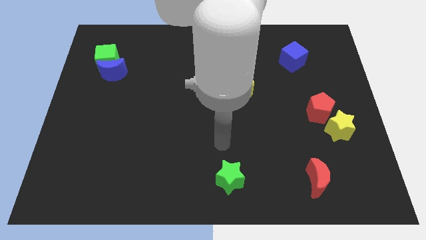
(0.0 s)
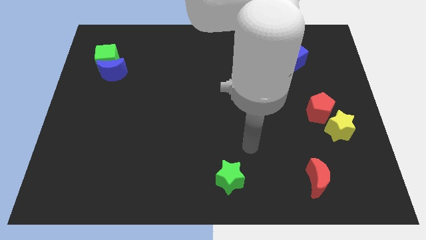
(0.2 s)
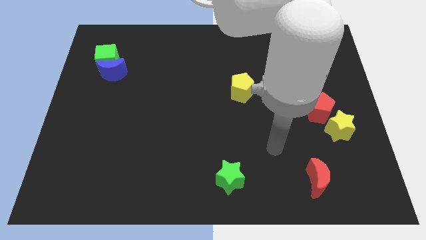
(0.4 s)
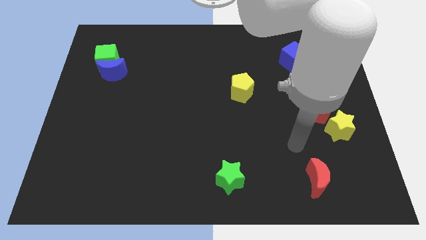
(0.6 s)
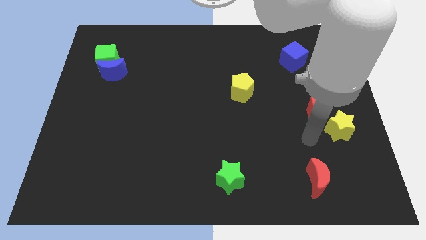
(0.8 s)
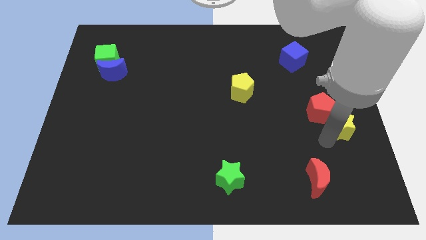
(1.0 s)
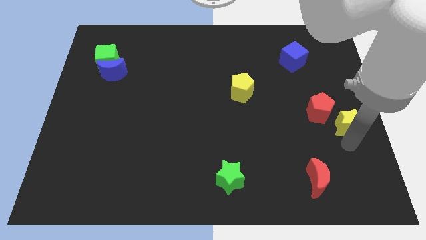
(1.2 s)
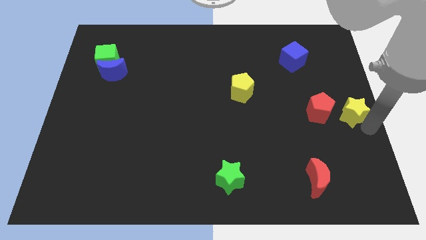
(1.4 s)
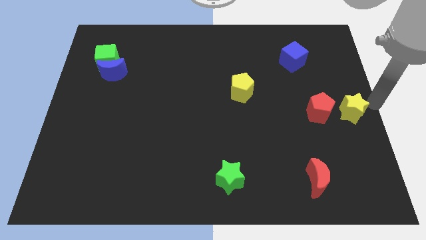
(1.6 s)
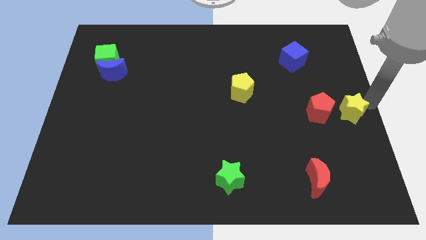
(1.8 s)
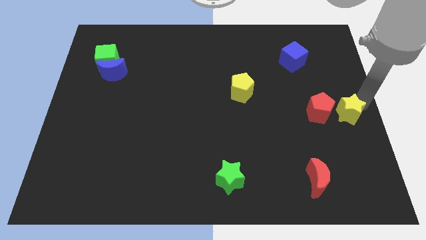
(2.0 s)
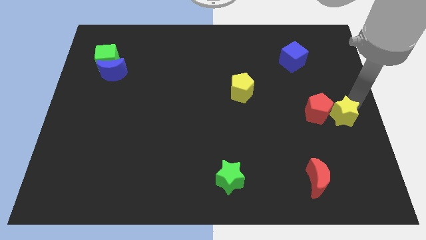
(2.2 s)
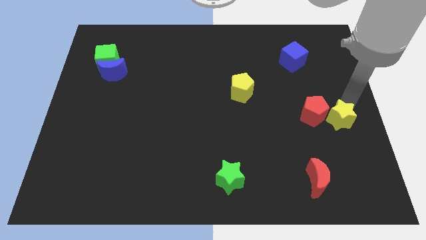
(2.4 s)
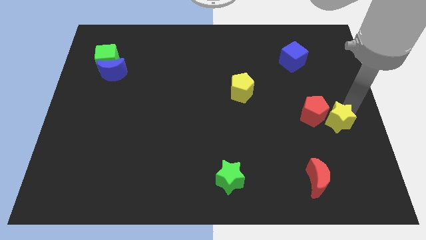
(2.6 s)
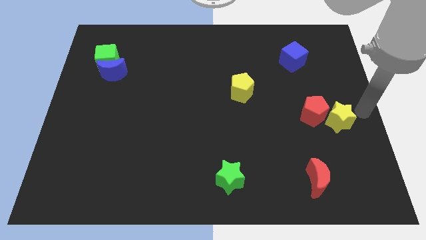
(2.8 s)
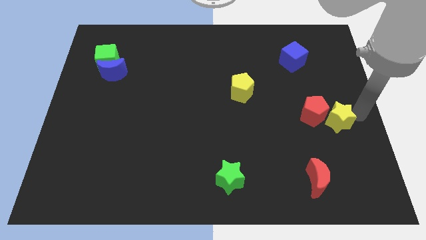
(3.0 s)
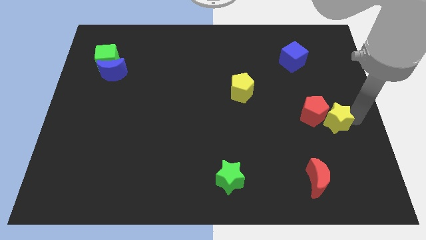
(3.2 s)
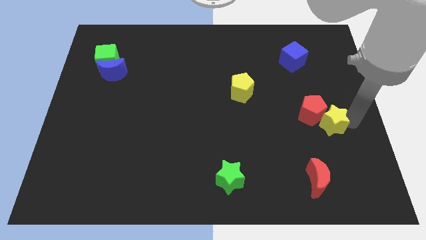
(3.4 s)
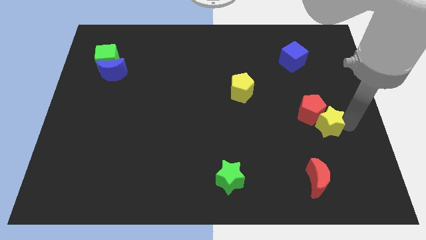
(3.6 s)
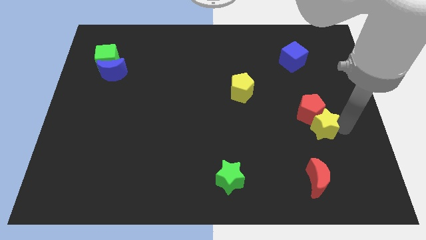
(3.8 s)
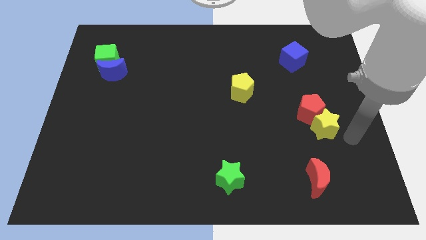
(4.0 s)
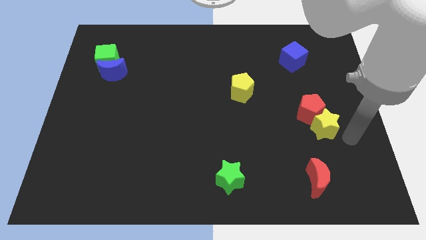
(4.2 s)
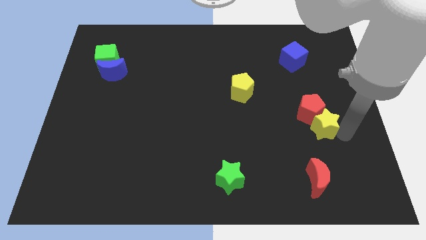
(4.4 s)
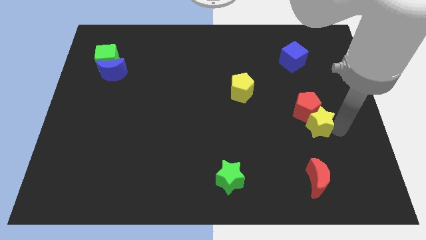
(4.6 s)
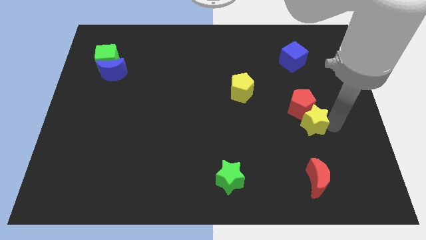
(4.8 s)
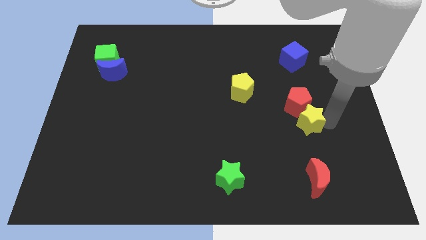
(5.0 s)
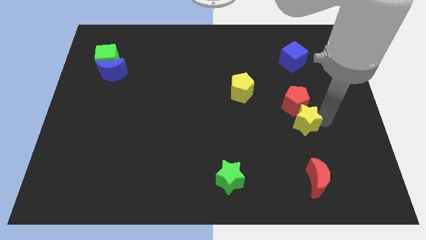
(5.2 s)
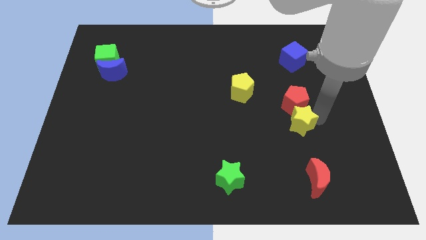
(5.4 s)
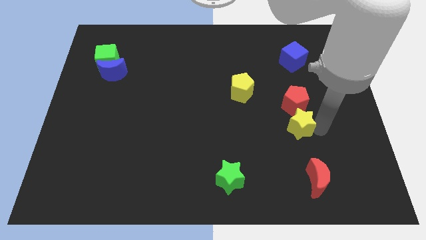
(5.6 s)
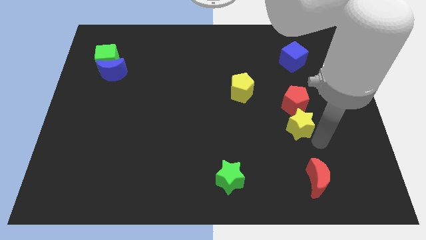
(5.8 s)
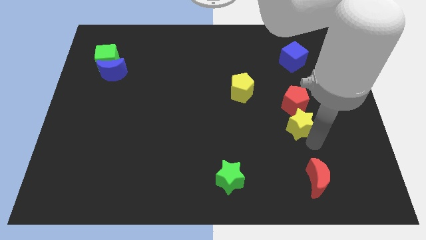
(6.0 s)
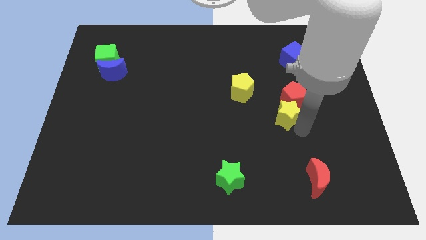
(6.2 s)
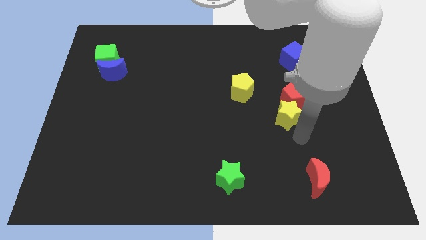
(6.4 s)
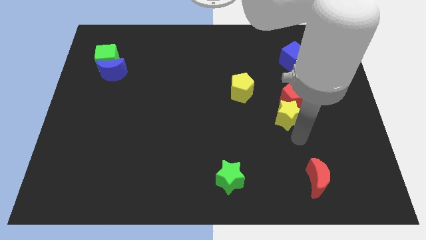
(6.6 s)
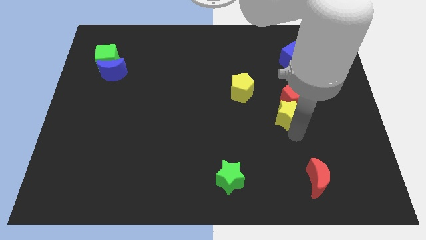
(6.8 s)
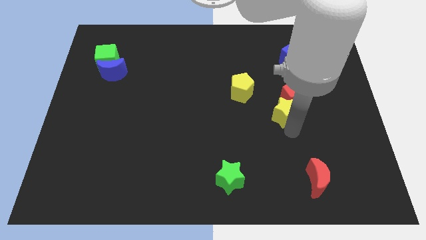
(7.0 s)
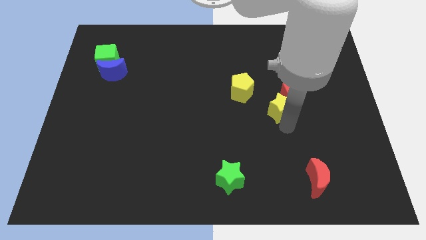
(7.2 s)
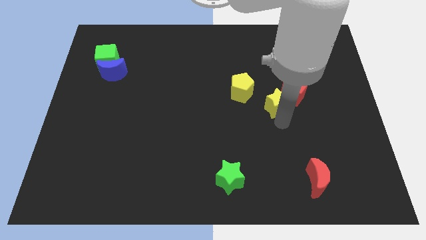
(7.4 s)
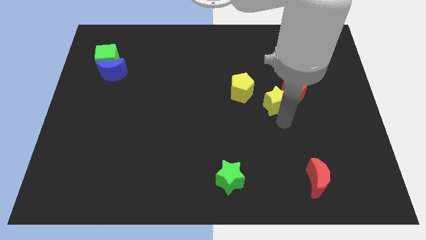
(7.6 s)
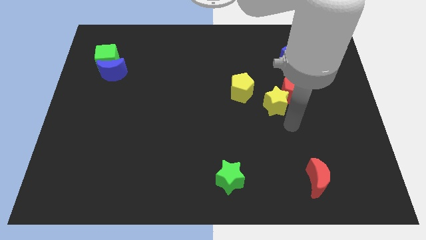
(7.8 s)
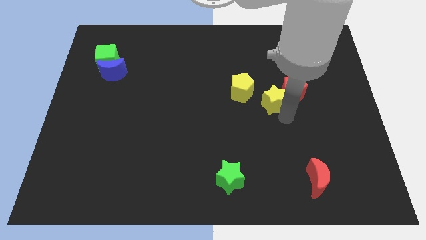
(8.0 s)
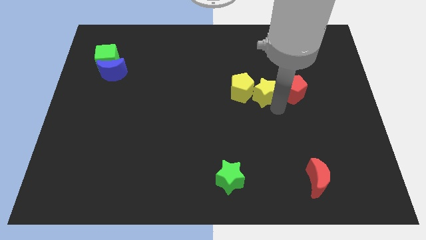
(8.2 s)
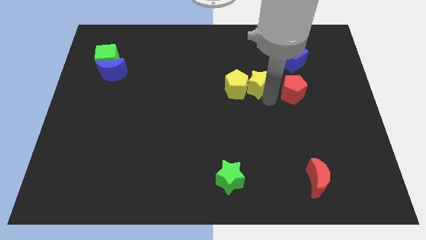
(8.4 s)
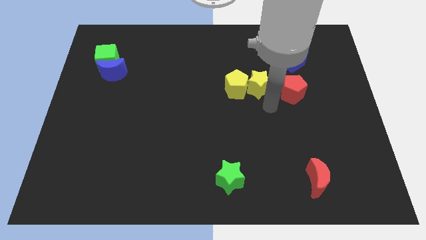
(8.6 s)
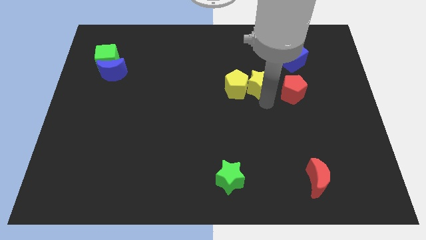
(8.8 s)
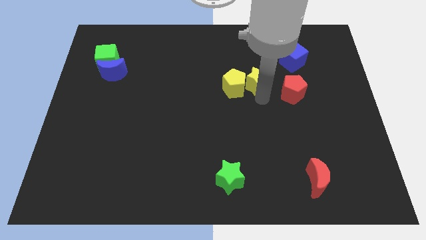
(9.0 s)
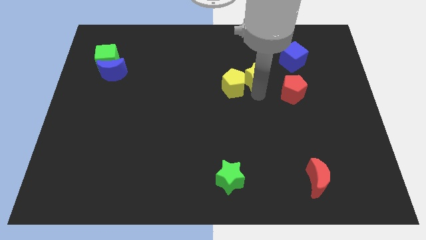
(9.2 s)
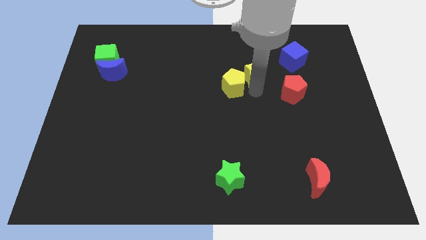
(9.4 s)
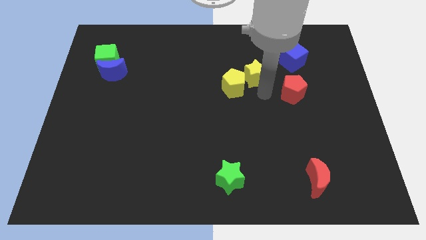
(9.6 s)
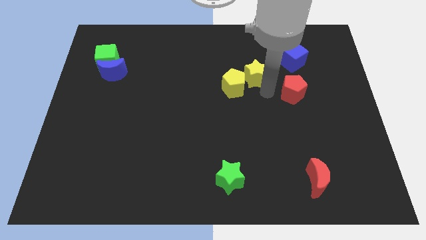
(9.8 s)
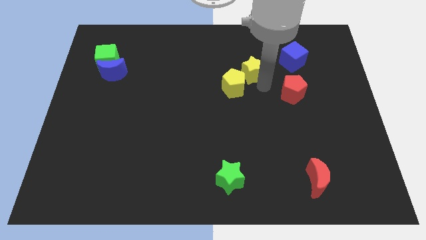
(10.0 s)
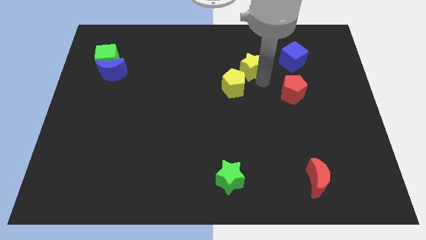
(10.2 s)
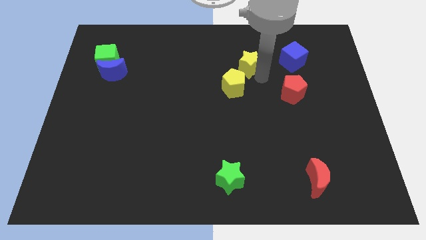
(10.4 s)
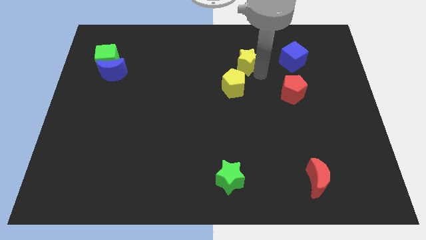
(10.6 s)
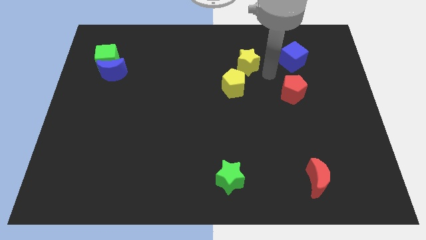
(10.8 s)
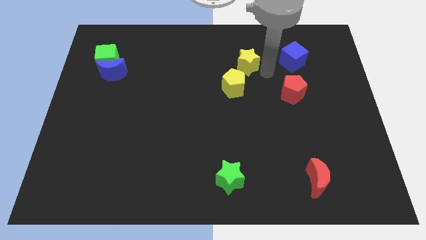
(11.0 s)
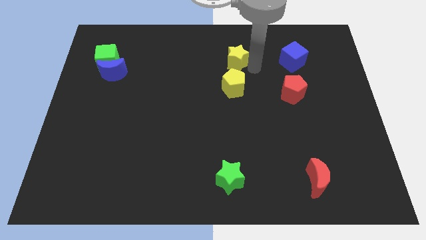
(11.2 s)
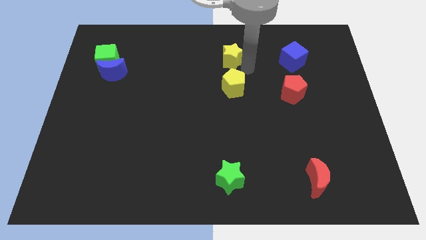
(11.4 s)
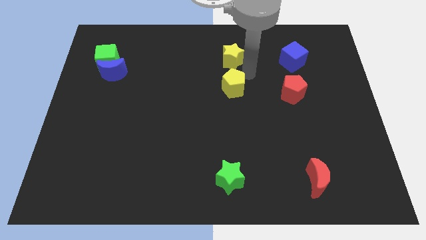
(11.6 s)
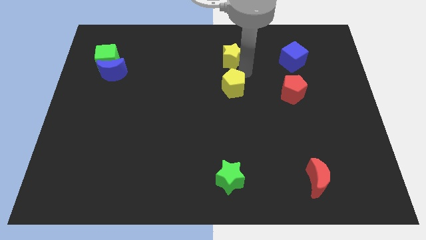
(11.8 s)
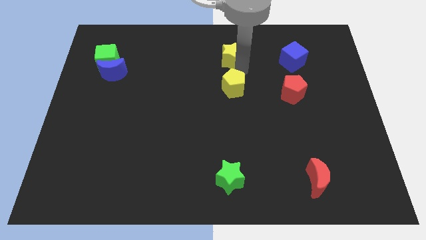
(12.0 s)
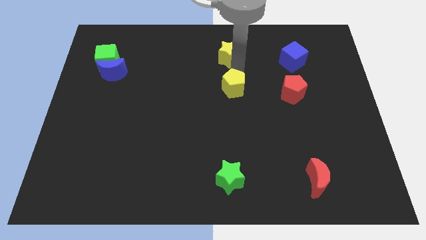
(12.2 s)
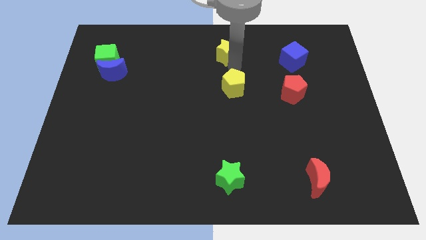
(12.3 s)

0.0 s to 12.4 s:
push the yellow star to the towards your base
